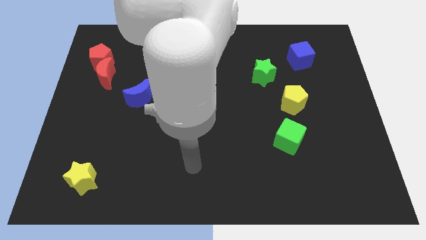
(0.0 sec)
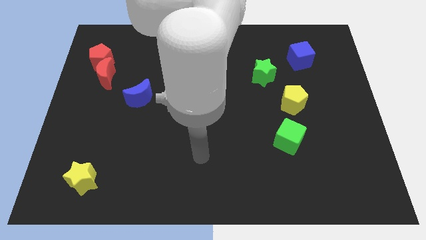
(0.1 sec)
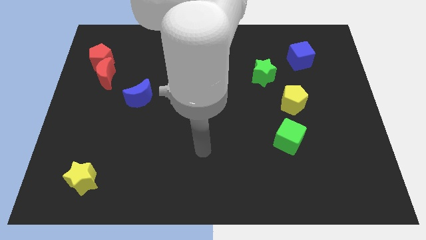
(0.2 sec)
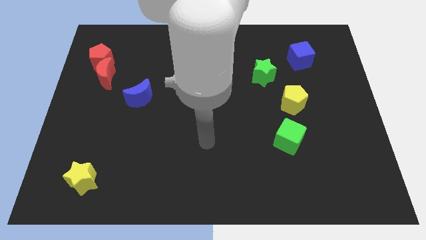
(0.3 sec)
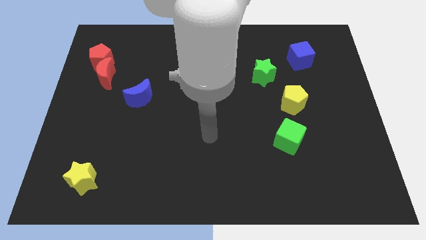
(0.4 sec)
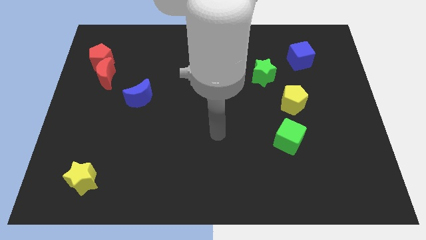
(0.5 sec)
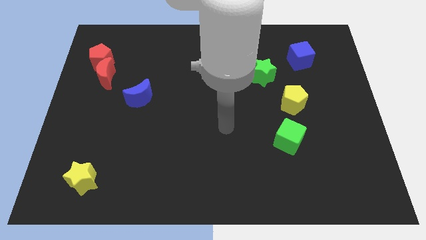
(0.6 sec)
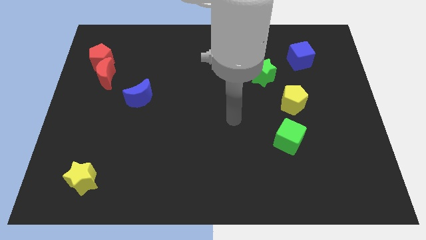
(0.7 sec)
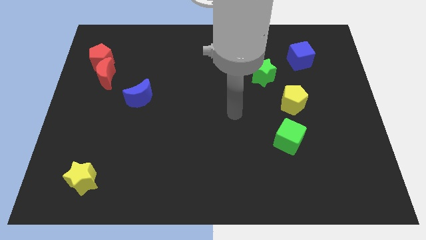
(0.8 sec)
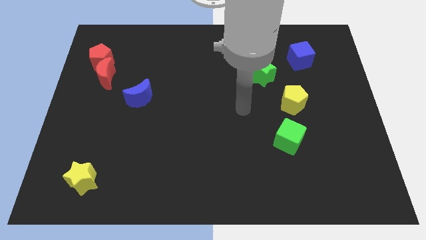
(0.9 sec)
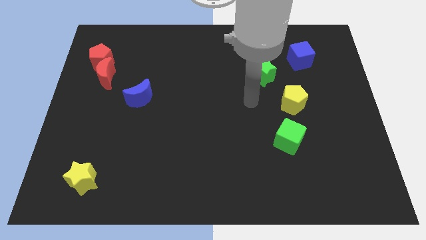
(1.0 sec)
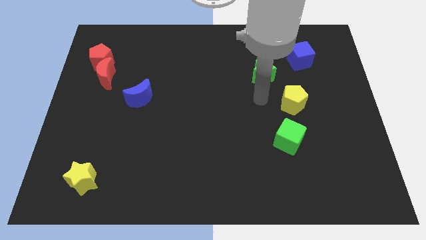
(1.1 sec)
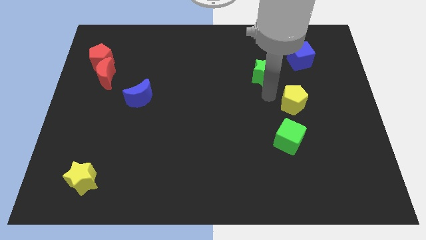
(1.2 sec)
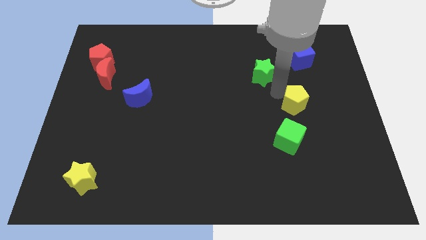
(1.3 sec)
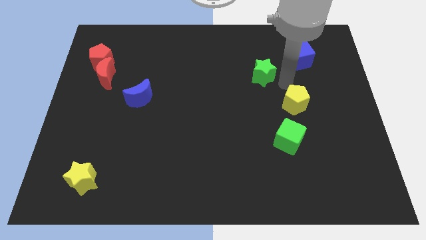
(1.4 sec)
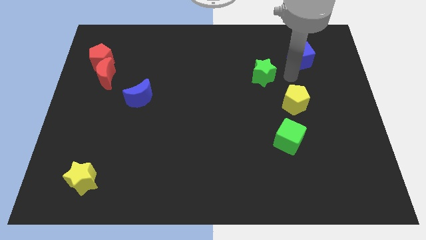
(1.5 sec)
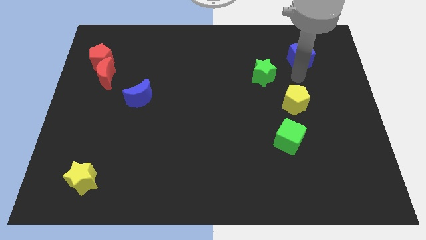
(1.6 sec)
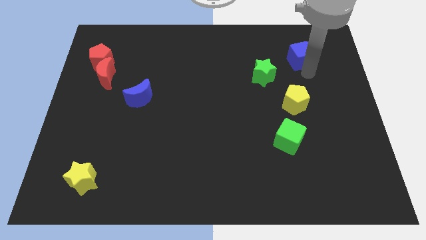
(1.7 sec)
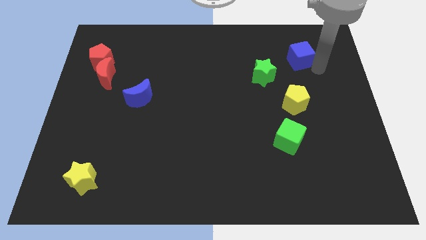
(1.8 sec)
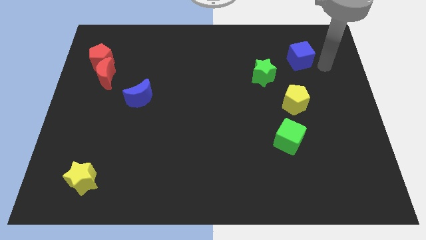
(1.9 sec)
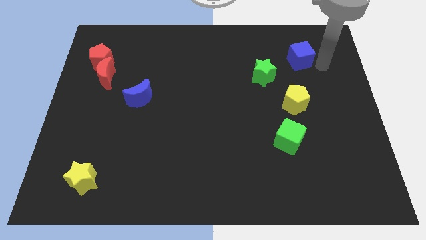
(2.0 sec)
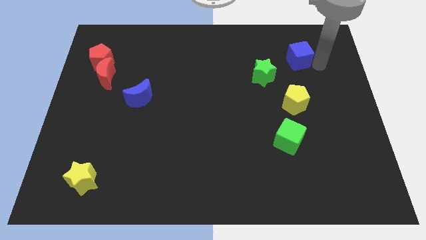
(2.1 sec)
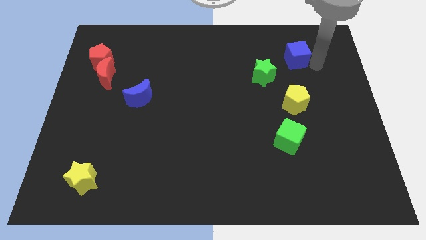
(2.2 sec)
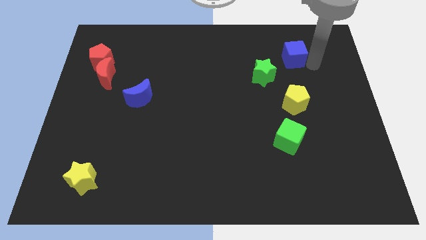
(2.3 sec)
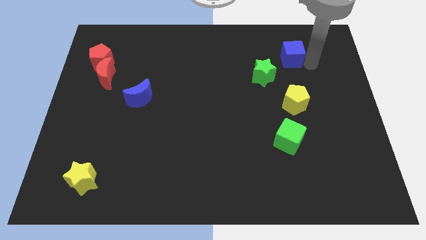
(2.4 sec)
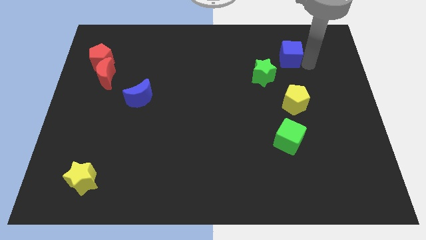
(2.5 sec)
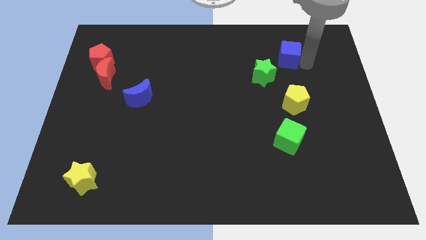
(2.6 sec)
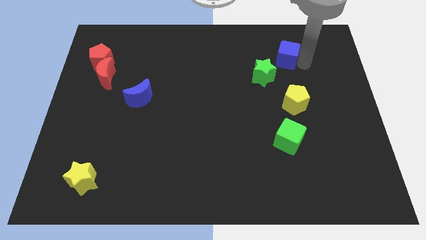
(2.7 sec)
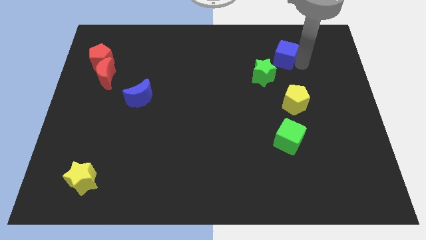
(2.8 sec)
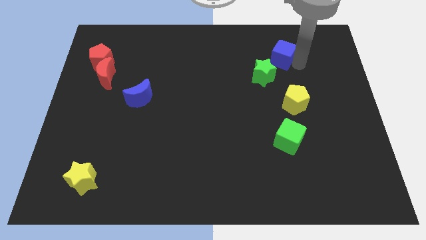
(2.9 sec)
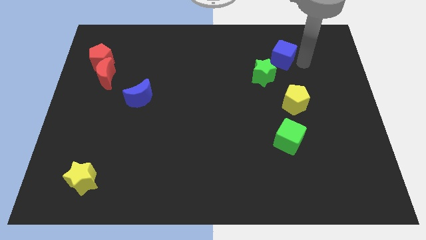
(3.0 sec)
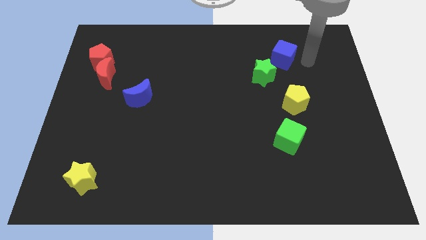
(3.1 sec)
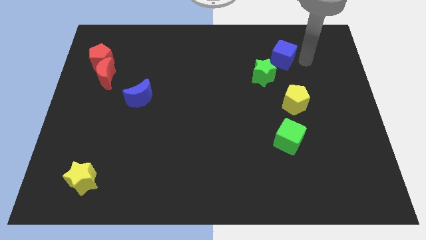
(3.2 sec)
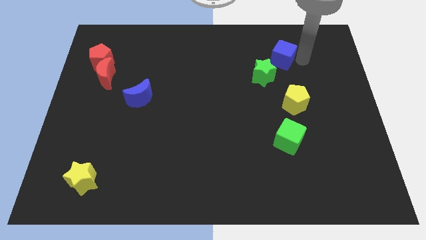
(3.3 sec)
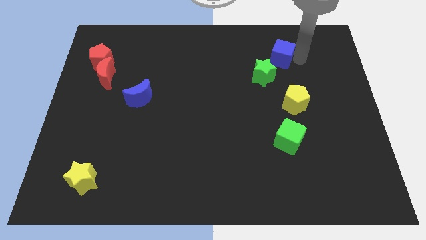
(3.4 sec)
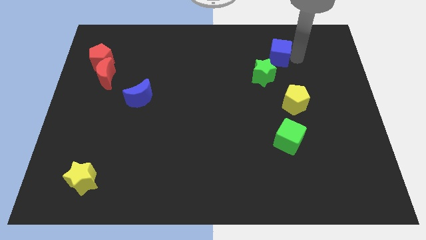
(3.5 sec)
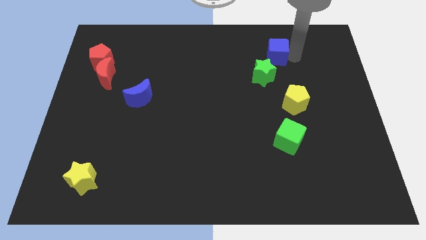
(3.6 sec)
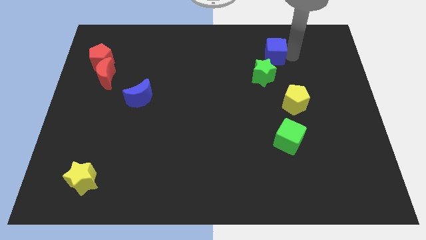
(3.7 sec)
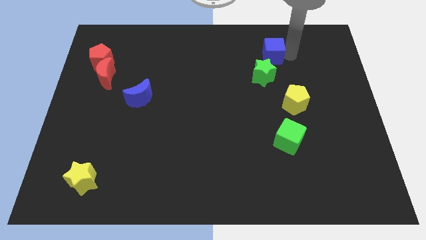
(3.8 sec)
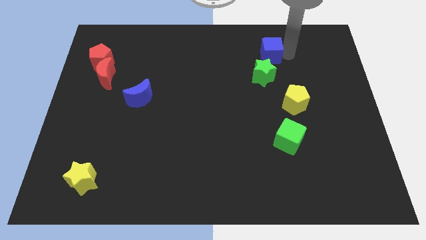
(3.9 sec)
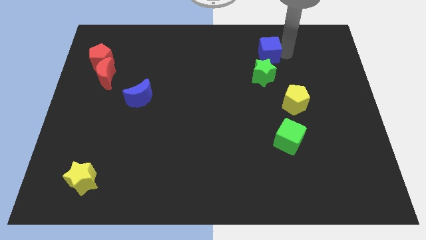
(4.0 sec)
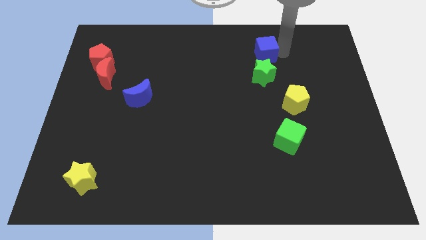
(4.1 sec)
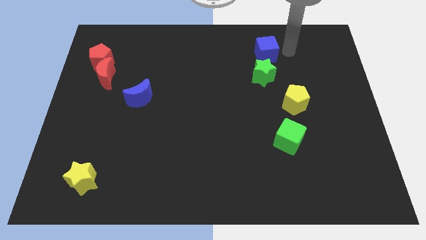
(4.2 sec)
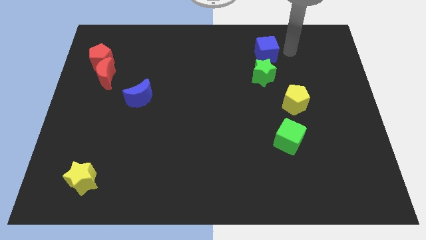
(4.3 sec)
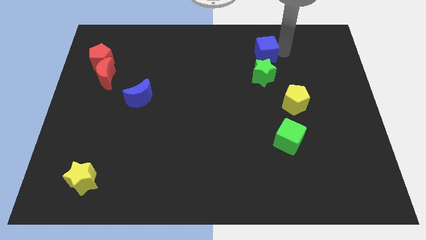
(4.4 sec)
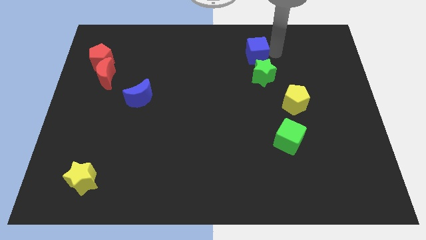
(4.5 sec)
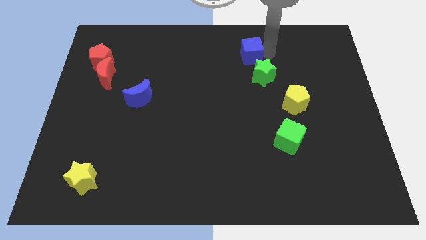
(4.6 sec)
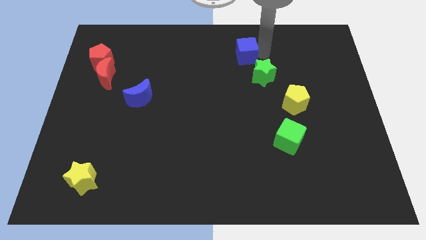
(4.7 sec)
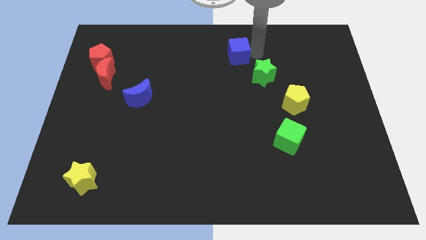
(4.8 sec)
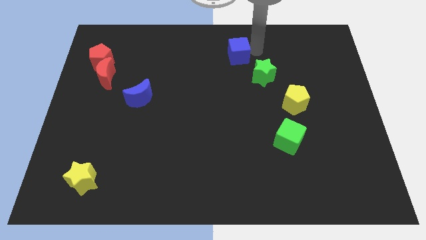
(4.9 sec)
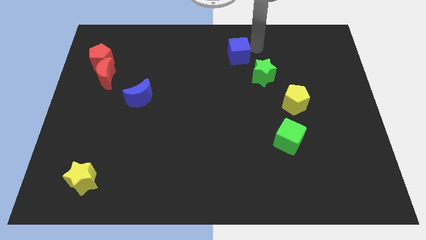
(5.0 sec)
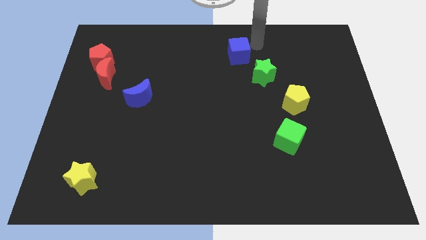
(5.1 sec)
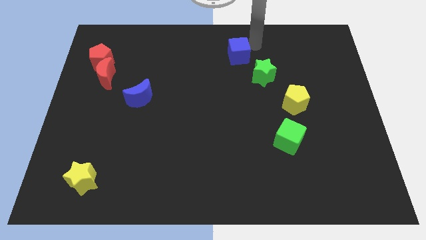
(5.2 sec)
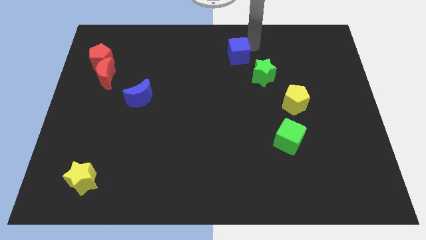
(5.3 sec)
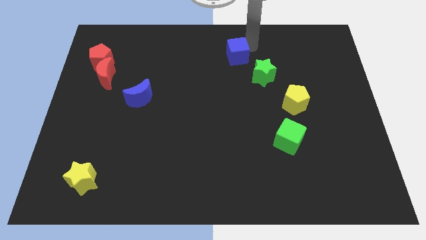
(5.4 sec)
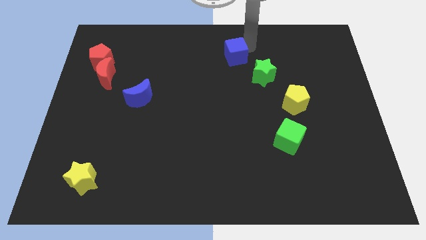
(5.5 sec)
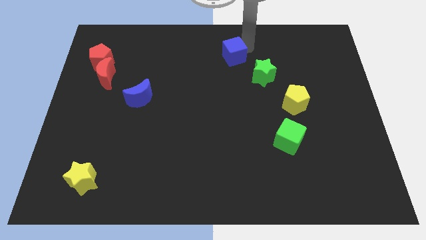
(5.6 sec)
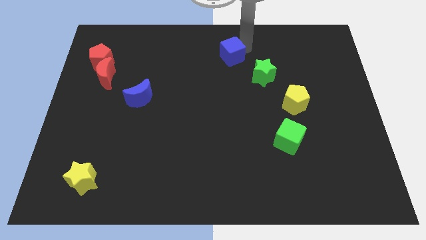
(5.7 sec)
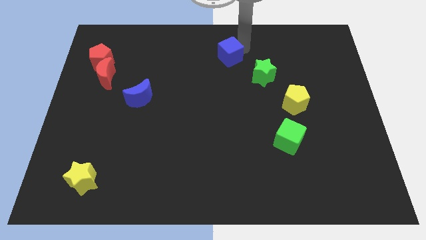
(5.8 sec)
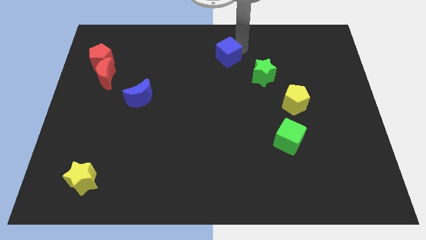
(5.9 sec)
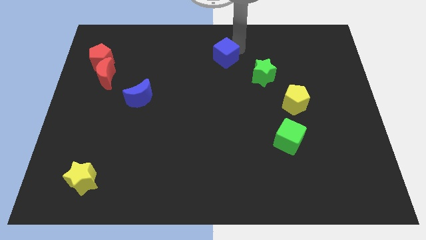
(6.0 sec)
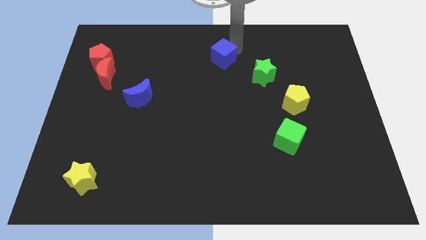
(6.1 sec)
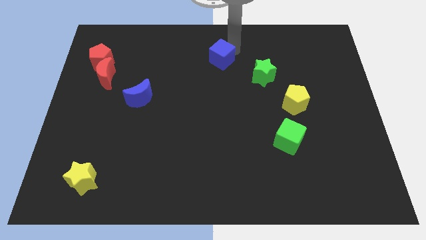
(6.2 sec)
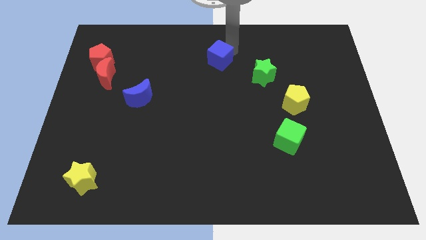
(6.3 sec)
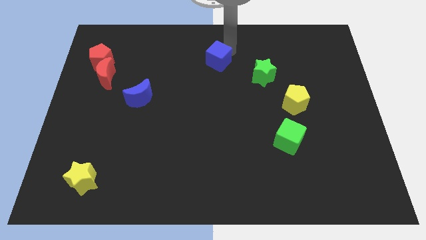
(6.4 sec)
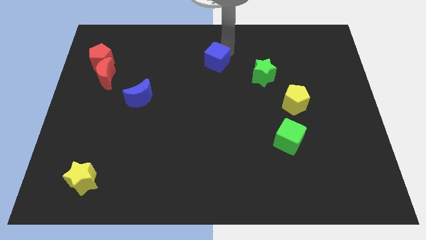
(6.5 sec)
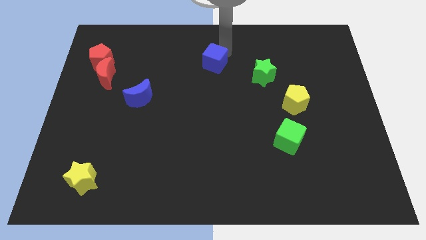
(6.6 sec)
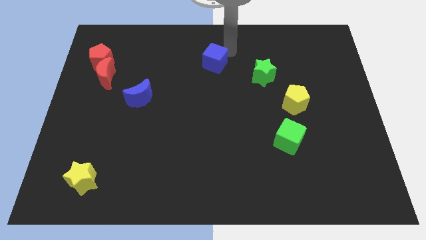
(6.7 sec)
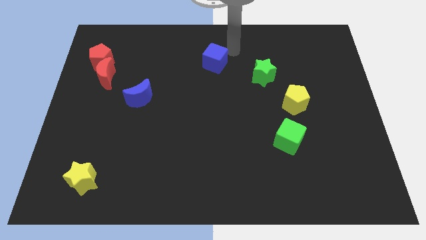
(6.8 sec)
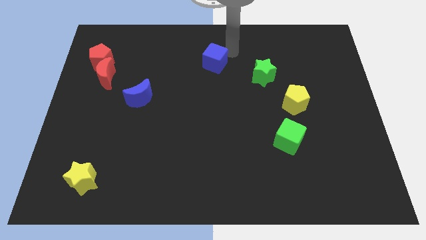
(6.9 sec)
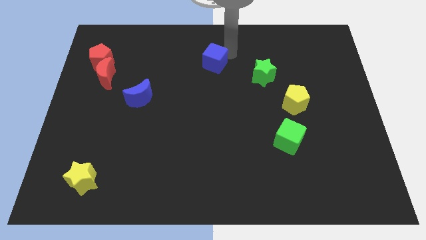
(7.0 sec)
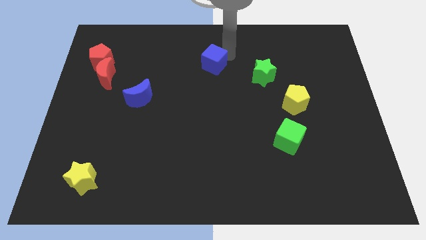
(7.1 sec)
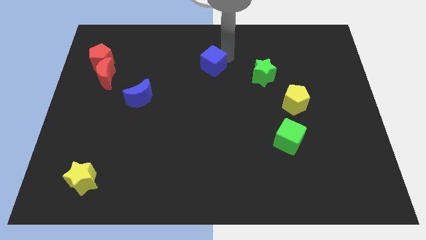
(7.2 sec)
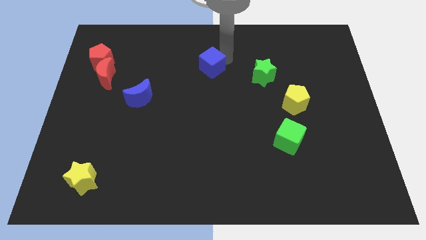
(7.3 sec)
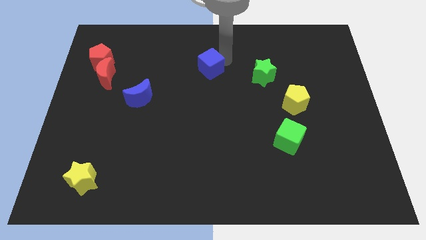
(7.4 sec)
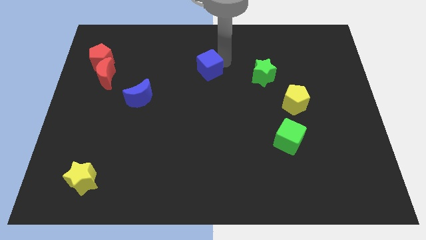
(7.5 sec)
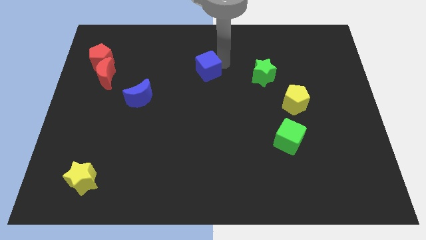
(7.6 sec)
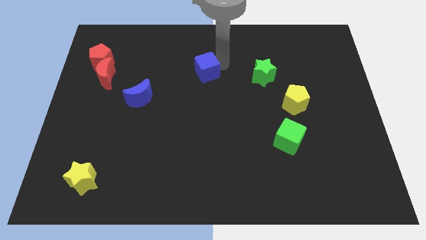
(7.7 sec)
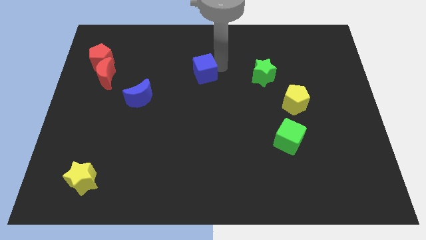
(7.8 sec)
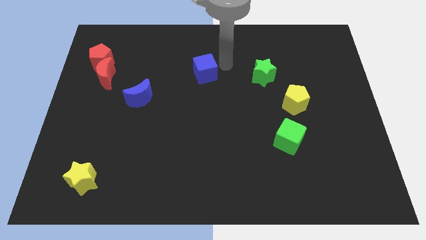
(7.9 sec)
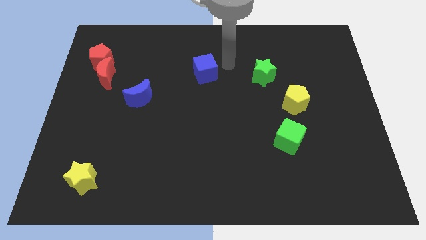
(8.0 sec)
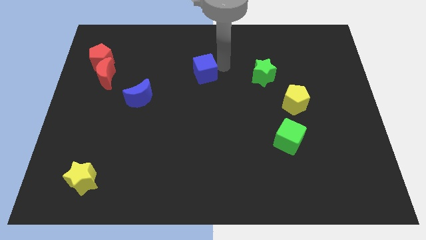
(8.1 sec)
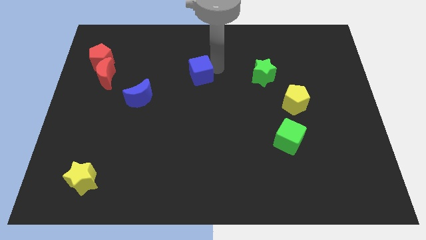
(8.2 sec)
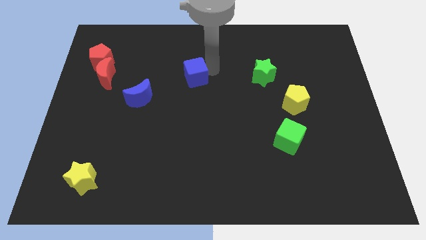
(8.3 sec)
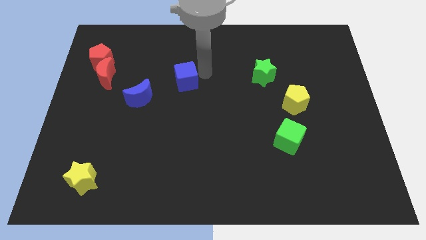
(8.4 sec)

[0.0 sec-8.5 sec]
push the blue cube diagonally up and to the right of the blue moon
